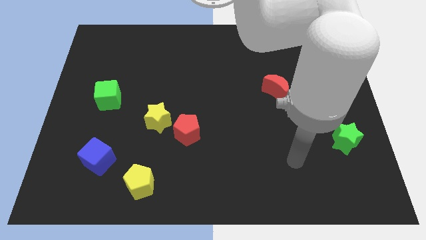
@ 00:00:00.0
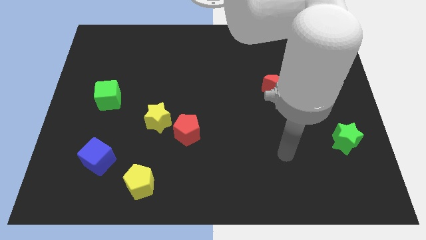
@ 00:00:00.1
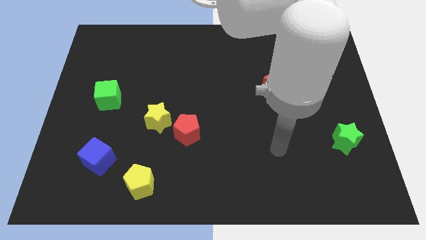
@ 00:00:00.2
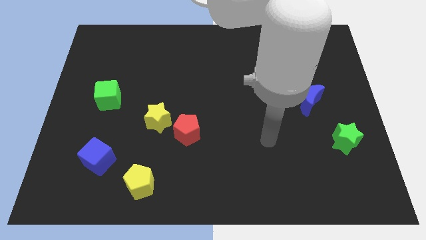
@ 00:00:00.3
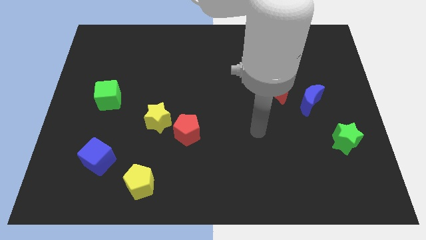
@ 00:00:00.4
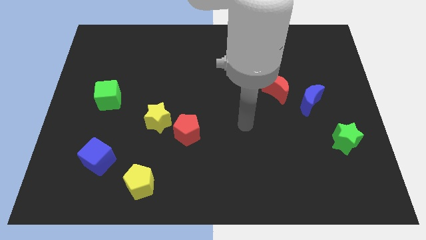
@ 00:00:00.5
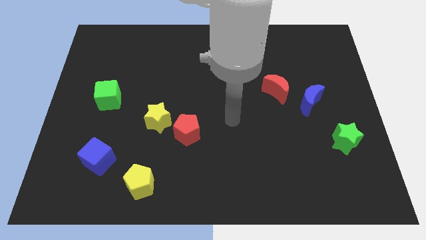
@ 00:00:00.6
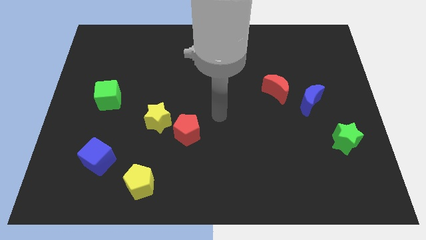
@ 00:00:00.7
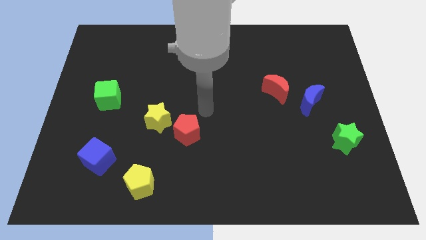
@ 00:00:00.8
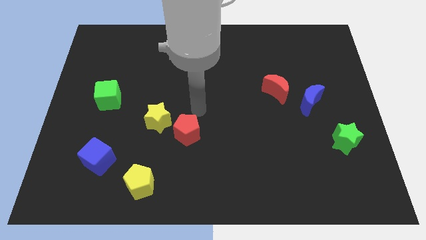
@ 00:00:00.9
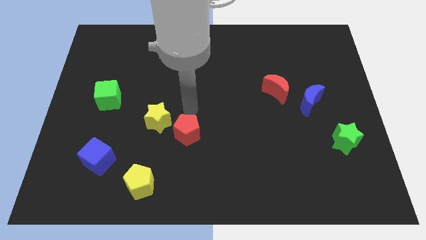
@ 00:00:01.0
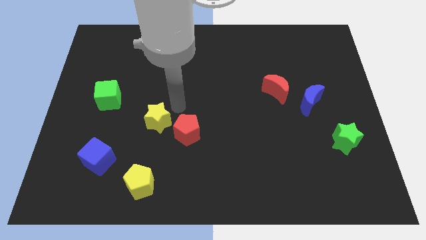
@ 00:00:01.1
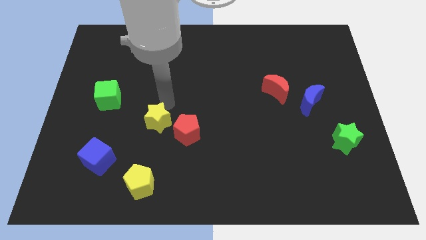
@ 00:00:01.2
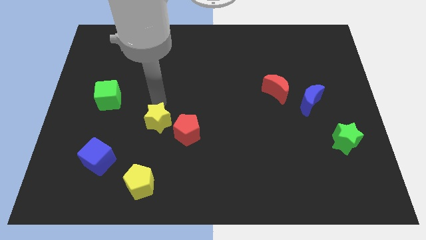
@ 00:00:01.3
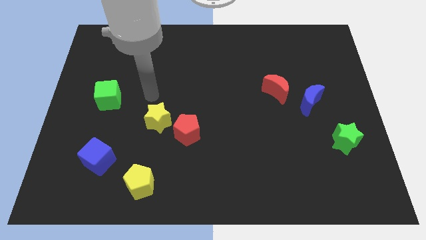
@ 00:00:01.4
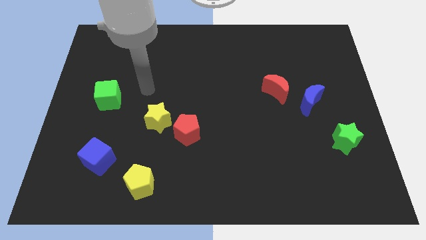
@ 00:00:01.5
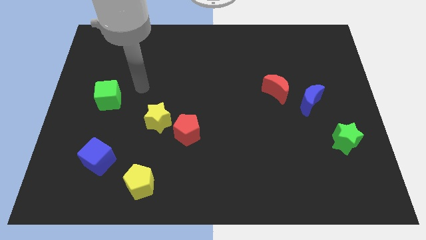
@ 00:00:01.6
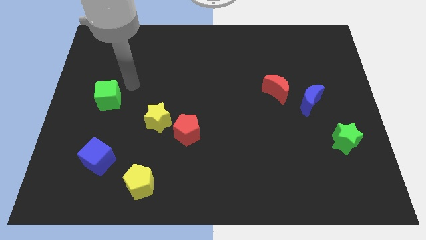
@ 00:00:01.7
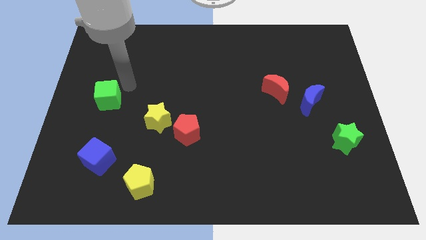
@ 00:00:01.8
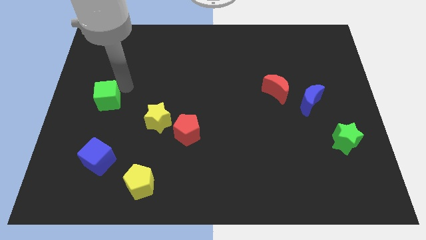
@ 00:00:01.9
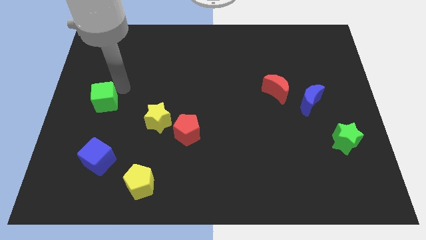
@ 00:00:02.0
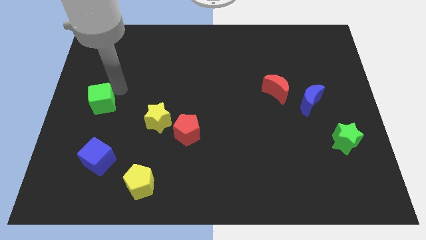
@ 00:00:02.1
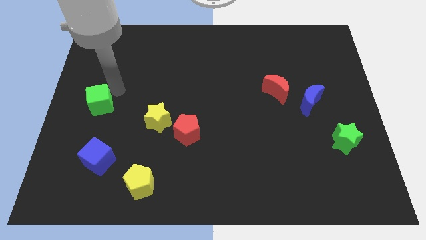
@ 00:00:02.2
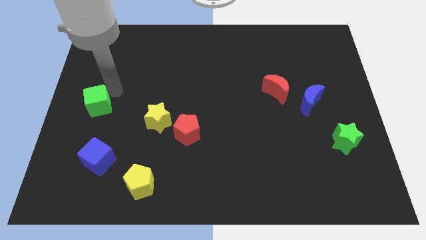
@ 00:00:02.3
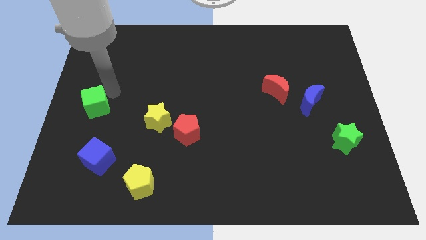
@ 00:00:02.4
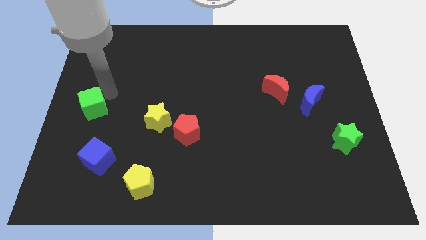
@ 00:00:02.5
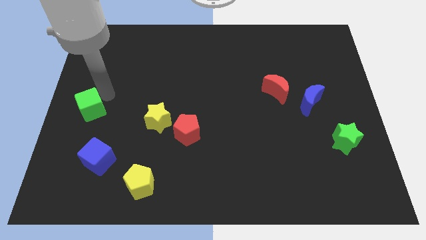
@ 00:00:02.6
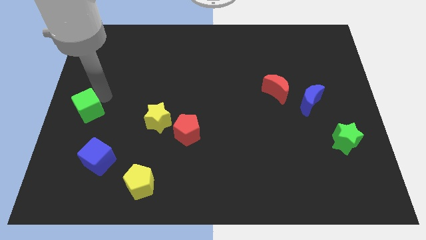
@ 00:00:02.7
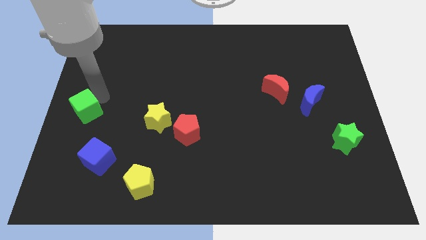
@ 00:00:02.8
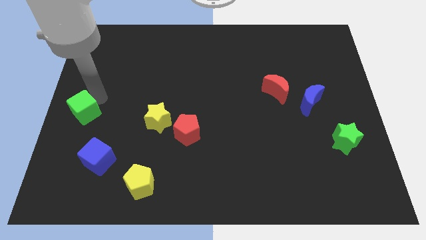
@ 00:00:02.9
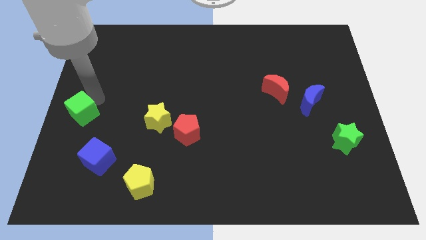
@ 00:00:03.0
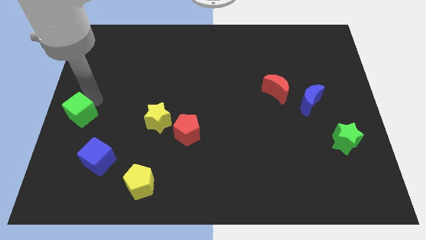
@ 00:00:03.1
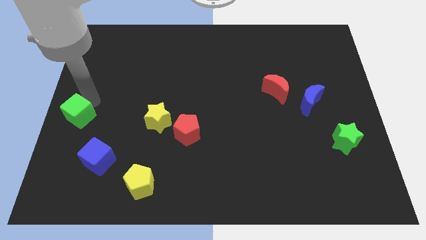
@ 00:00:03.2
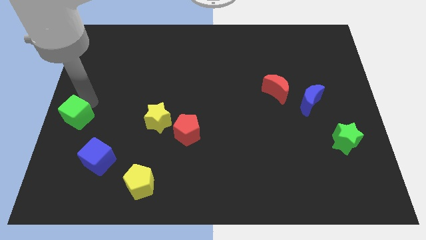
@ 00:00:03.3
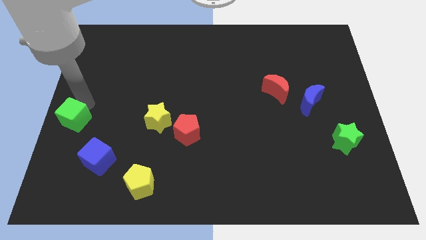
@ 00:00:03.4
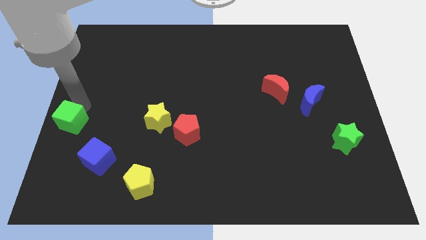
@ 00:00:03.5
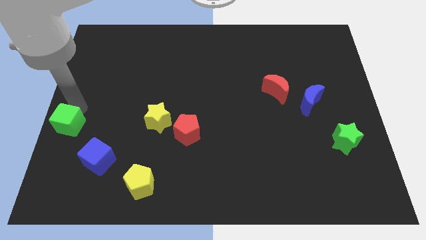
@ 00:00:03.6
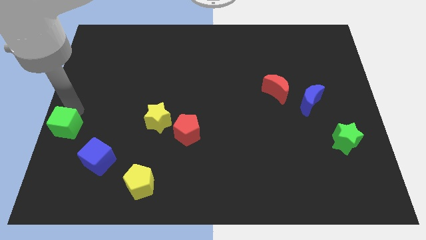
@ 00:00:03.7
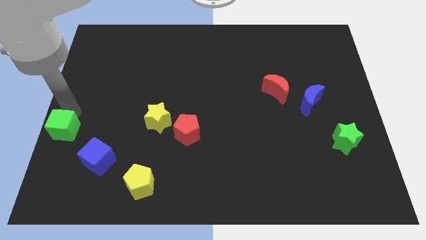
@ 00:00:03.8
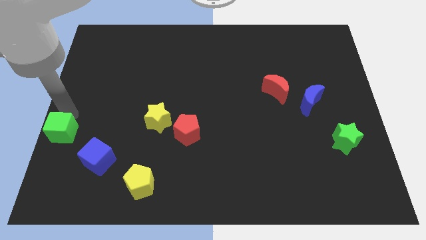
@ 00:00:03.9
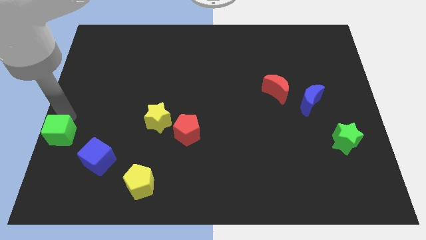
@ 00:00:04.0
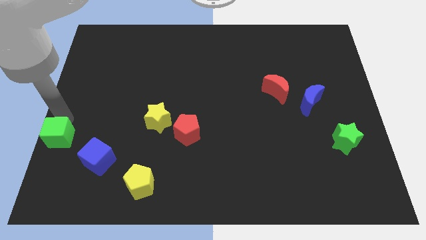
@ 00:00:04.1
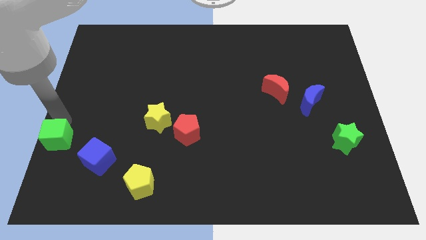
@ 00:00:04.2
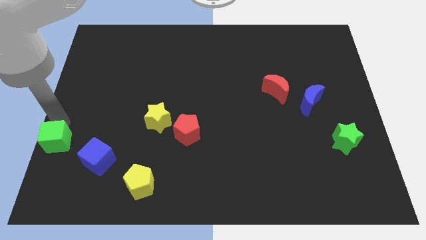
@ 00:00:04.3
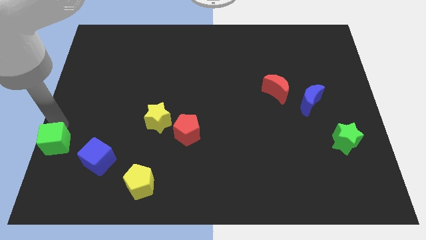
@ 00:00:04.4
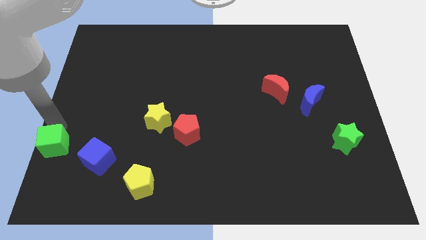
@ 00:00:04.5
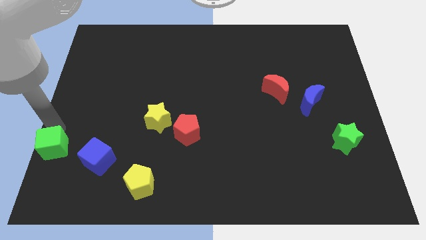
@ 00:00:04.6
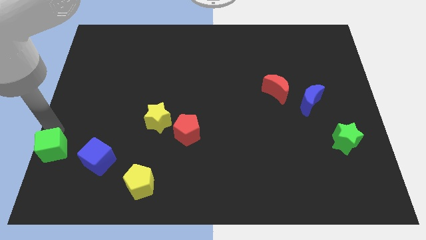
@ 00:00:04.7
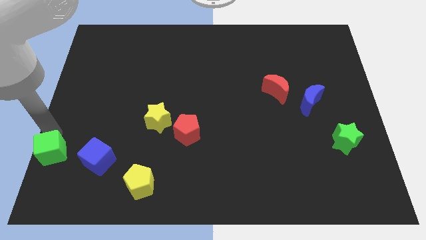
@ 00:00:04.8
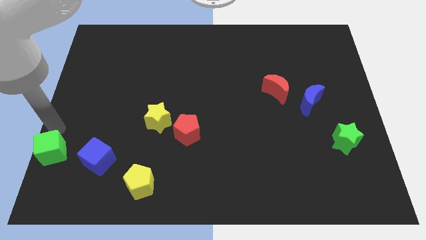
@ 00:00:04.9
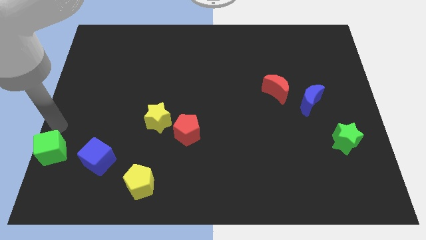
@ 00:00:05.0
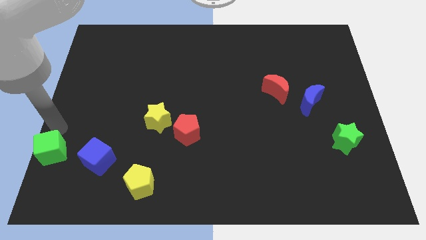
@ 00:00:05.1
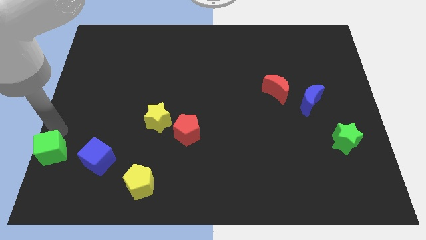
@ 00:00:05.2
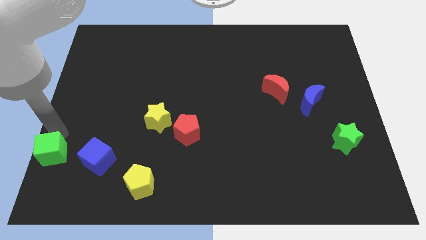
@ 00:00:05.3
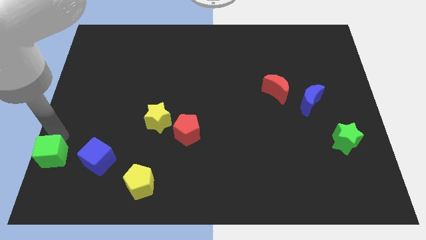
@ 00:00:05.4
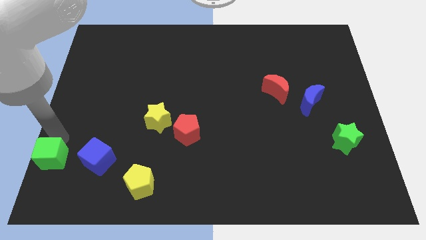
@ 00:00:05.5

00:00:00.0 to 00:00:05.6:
slide the green cube to the bottom left
